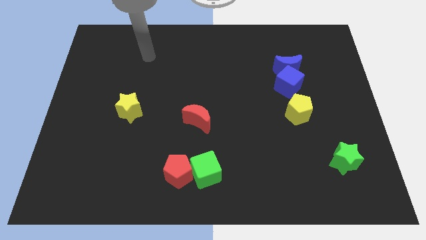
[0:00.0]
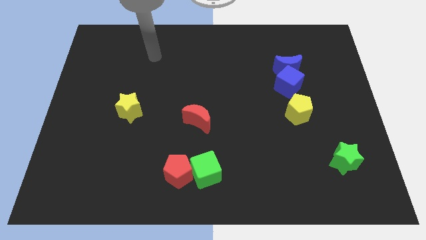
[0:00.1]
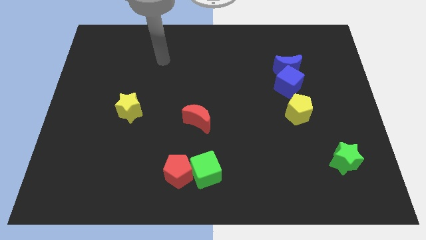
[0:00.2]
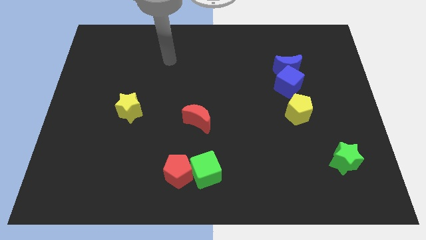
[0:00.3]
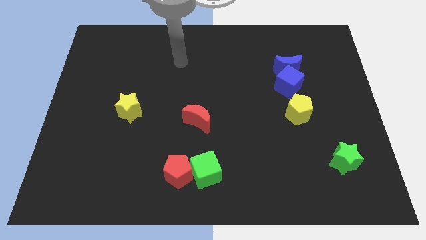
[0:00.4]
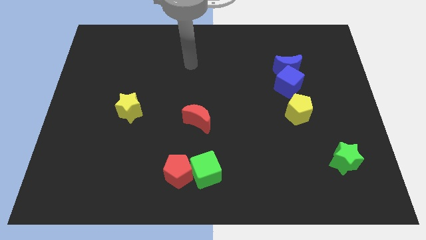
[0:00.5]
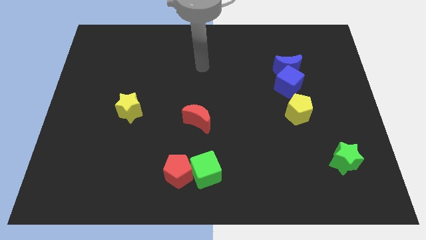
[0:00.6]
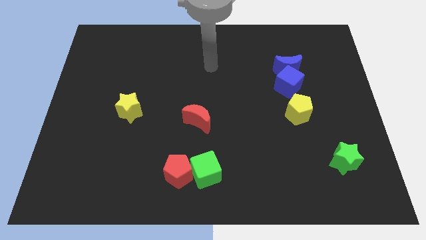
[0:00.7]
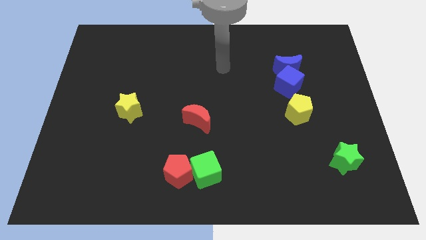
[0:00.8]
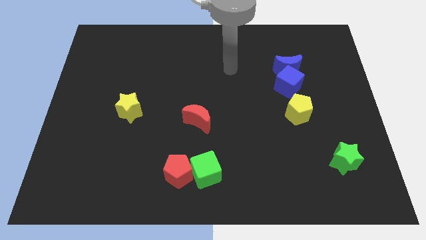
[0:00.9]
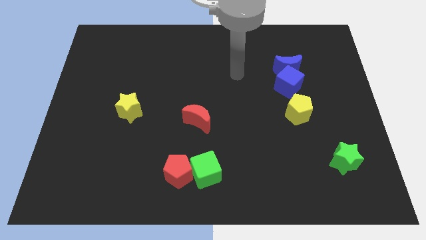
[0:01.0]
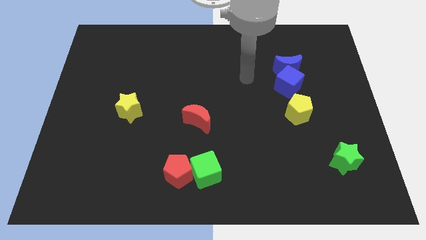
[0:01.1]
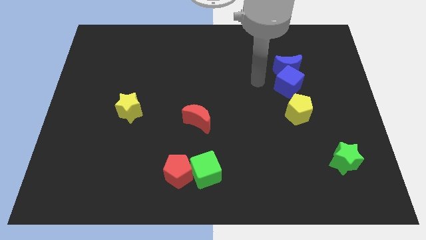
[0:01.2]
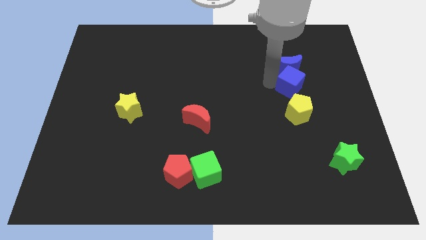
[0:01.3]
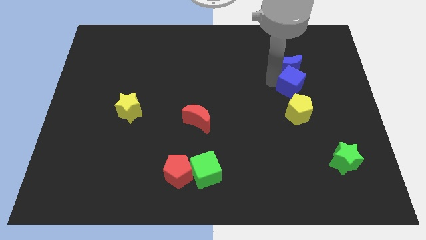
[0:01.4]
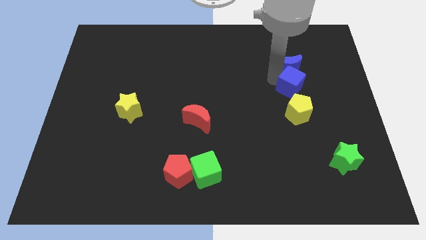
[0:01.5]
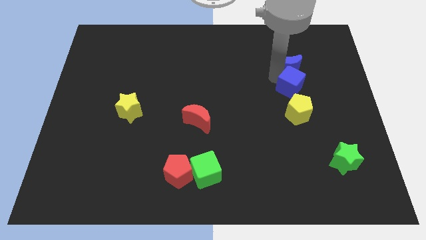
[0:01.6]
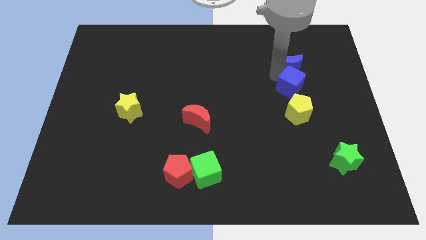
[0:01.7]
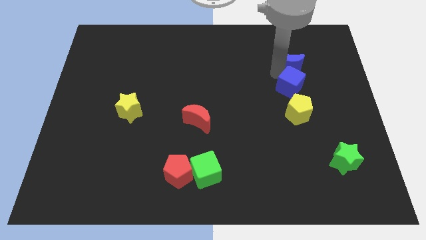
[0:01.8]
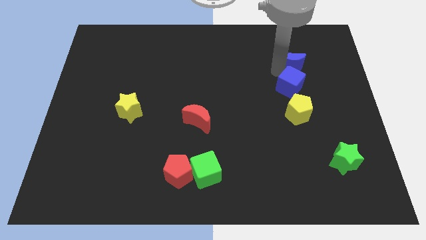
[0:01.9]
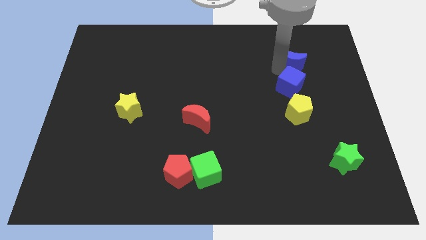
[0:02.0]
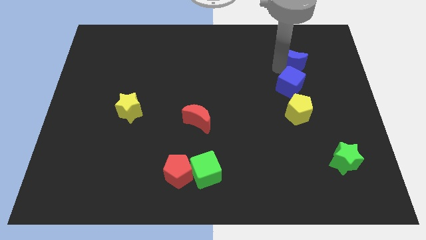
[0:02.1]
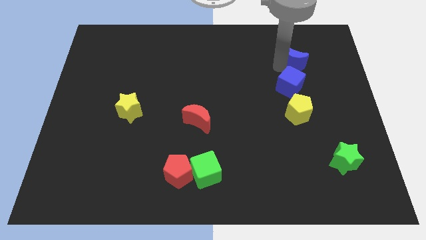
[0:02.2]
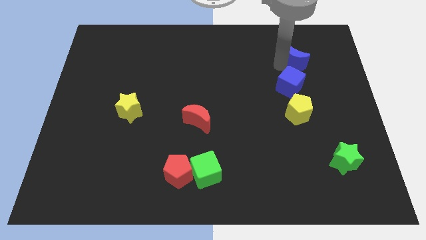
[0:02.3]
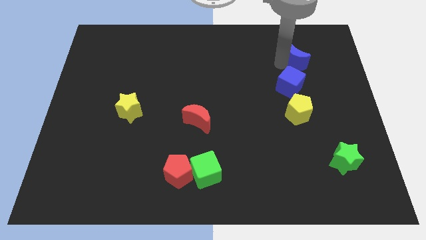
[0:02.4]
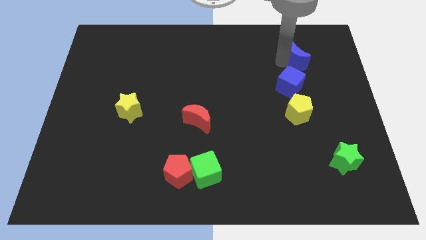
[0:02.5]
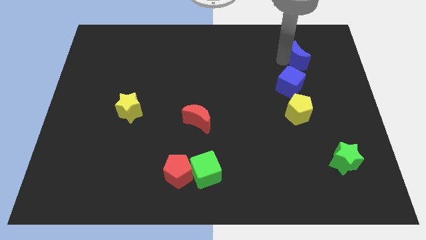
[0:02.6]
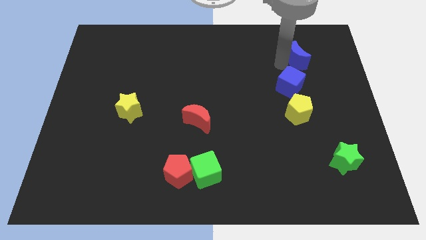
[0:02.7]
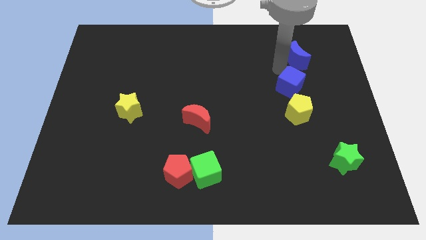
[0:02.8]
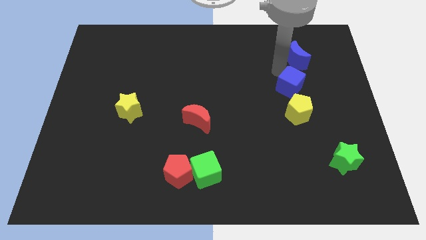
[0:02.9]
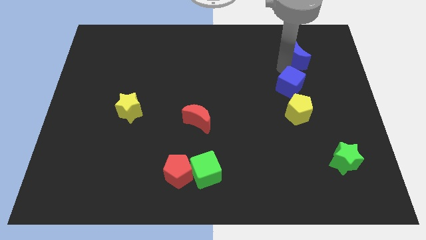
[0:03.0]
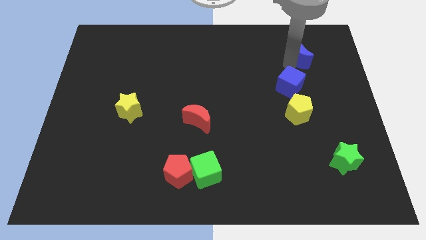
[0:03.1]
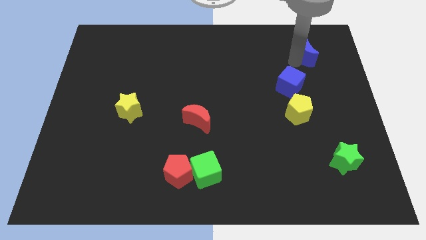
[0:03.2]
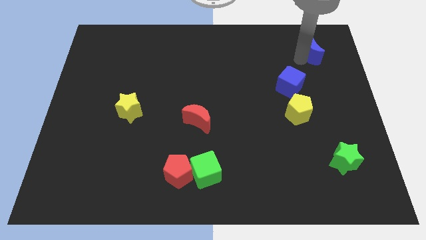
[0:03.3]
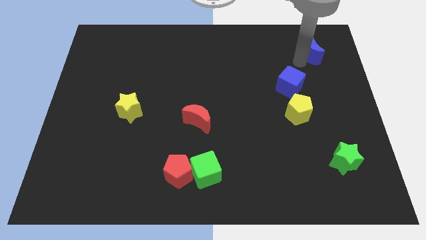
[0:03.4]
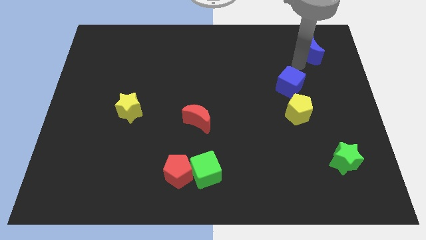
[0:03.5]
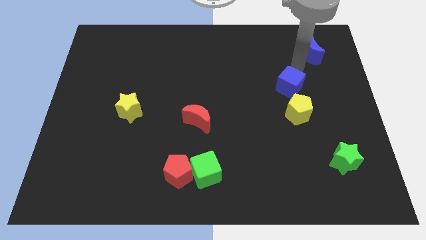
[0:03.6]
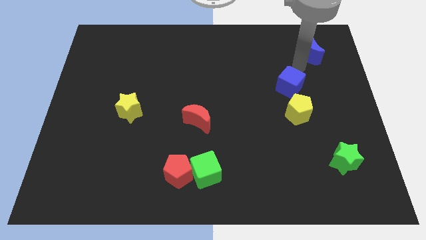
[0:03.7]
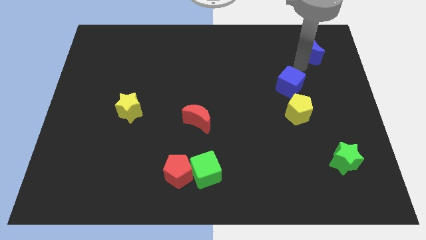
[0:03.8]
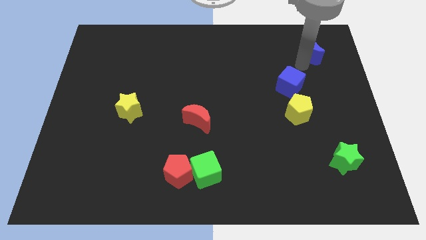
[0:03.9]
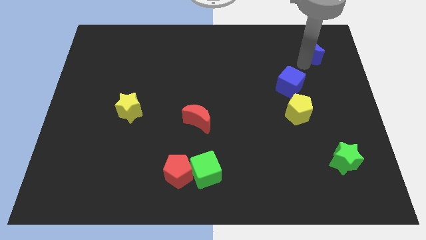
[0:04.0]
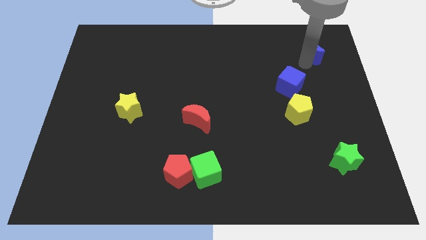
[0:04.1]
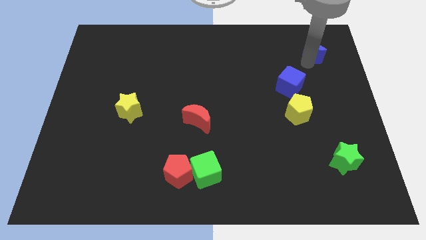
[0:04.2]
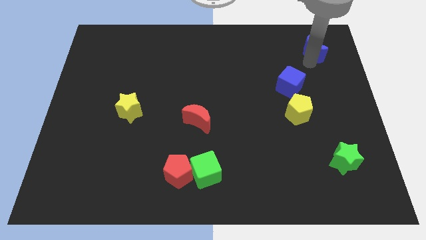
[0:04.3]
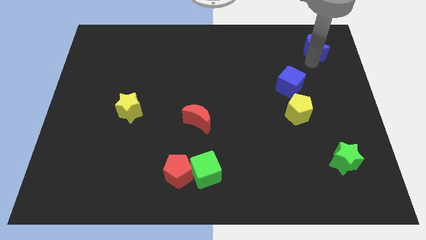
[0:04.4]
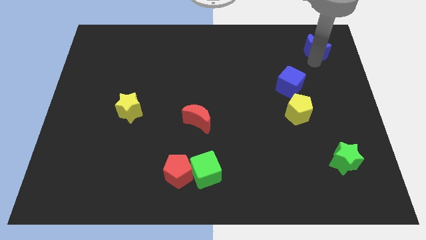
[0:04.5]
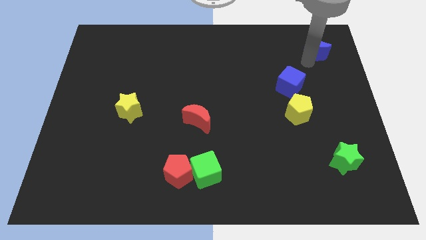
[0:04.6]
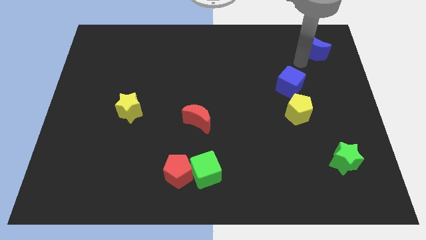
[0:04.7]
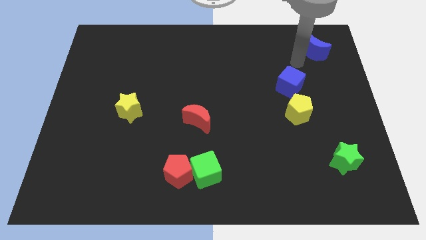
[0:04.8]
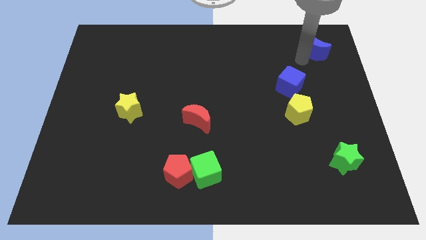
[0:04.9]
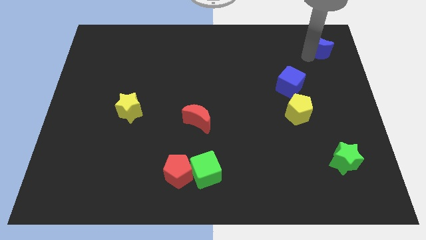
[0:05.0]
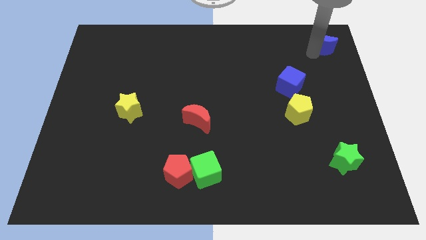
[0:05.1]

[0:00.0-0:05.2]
put the blue moon to the top right

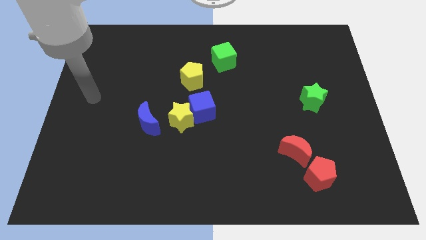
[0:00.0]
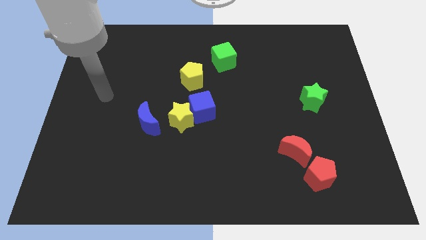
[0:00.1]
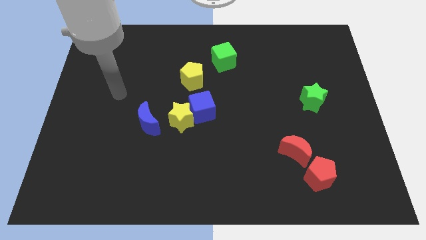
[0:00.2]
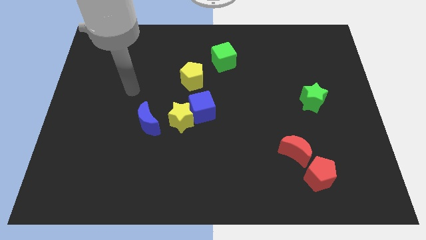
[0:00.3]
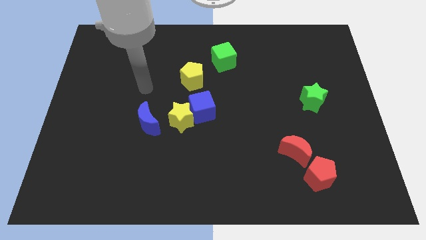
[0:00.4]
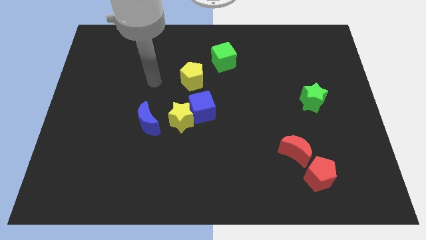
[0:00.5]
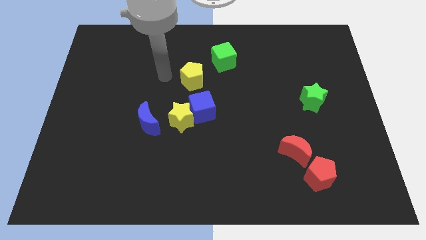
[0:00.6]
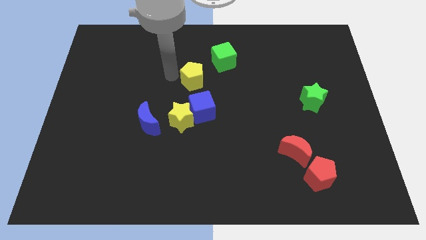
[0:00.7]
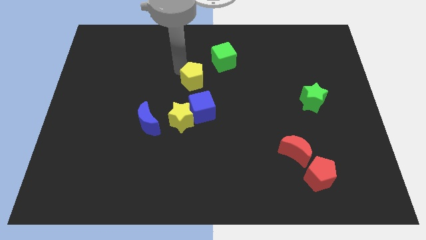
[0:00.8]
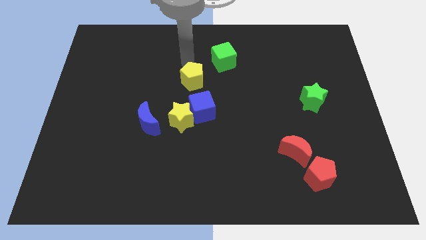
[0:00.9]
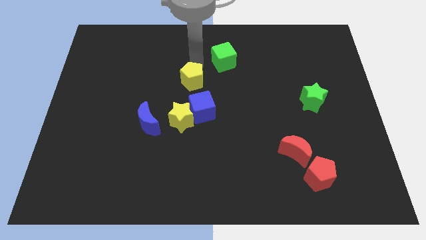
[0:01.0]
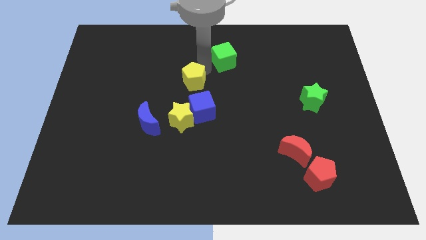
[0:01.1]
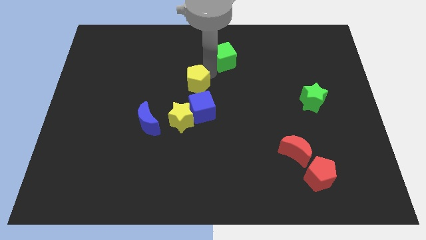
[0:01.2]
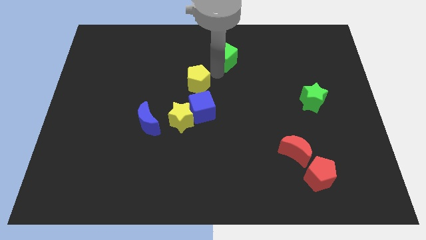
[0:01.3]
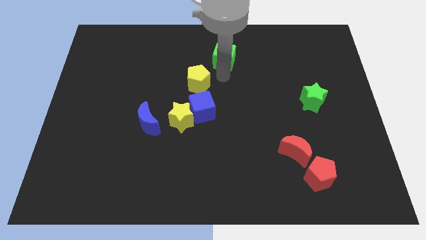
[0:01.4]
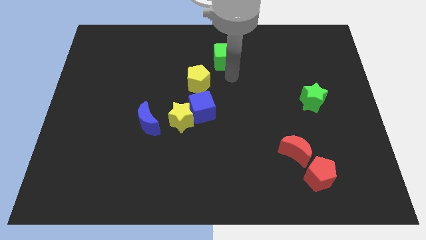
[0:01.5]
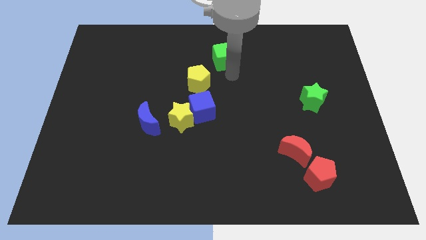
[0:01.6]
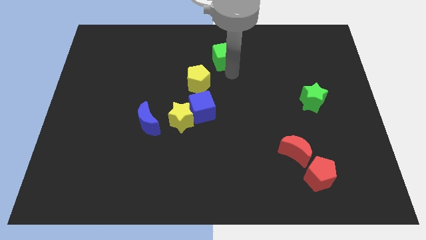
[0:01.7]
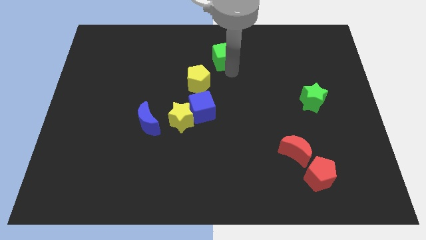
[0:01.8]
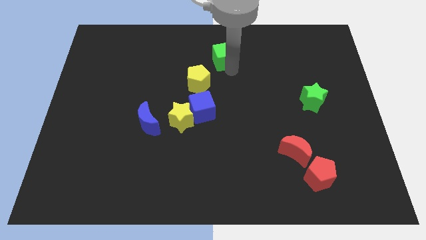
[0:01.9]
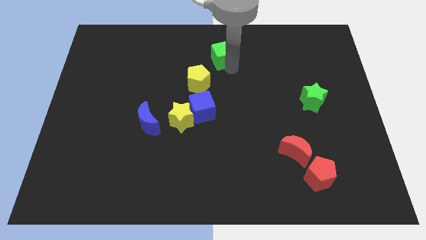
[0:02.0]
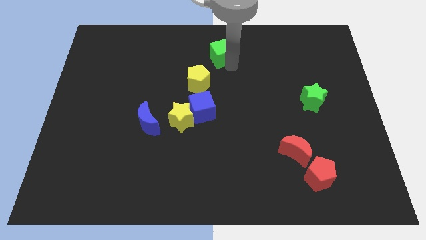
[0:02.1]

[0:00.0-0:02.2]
push the green cube to the towards your base
